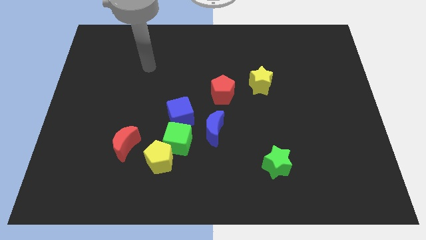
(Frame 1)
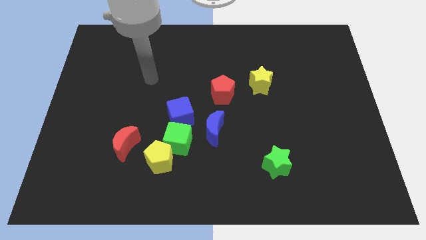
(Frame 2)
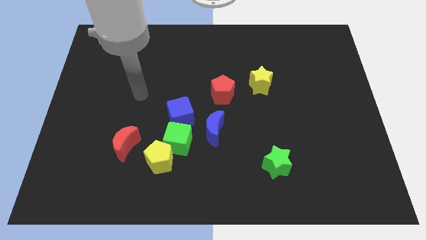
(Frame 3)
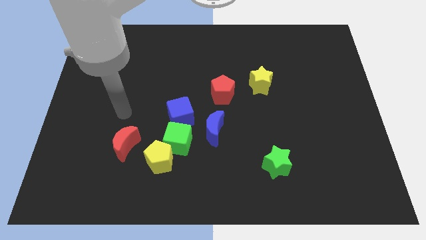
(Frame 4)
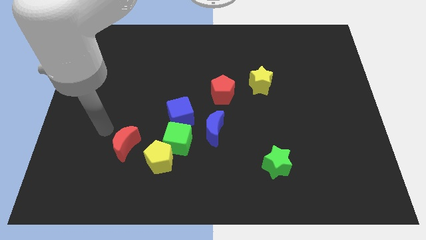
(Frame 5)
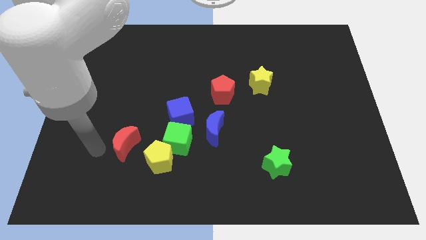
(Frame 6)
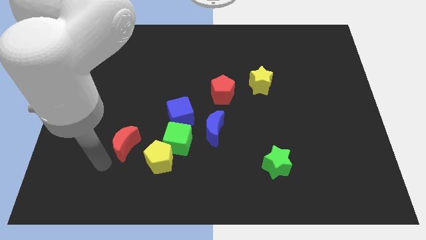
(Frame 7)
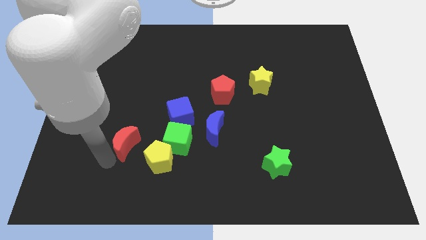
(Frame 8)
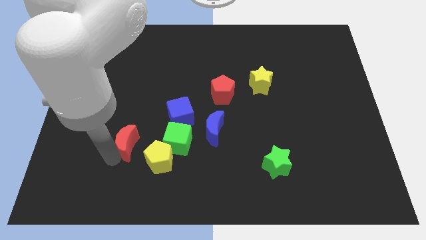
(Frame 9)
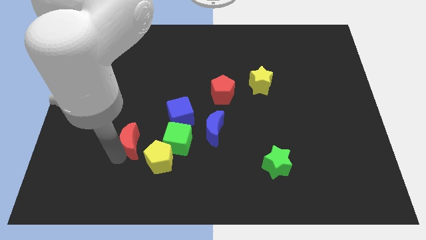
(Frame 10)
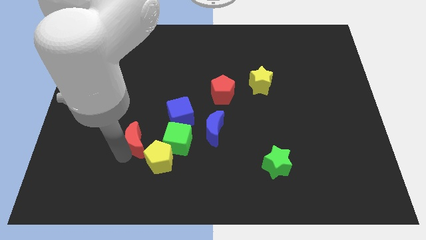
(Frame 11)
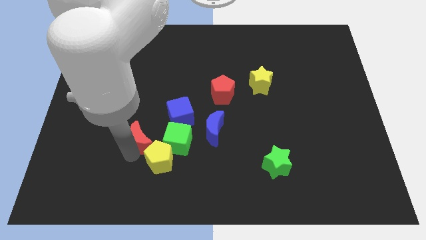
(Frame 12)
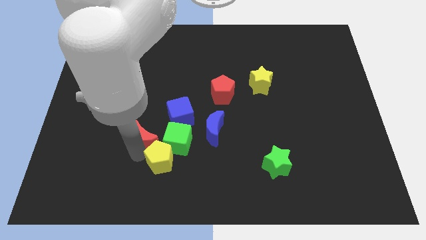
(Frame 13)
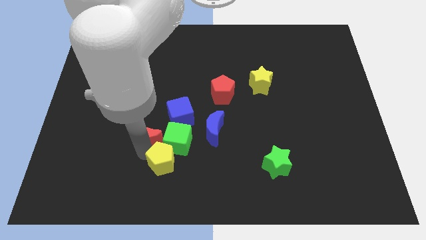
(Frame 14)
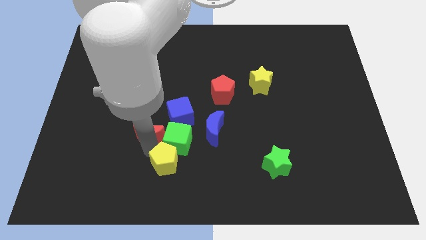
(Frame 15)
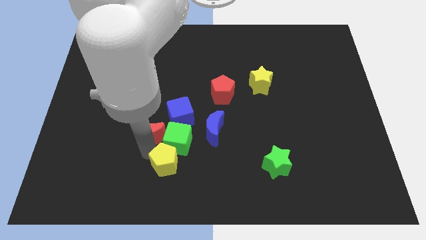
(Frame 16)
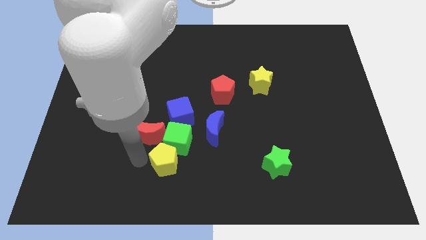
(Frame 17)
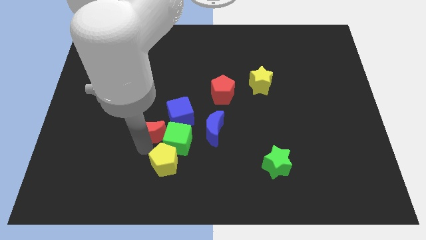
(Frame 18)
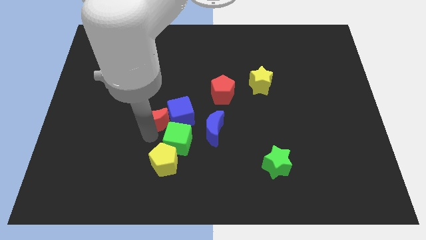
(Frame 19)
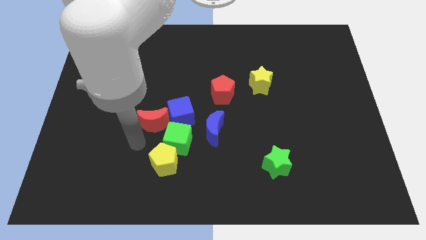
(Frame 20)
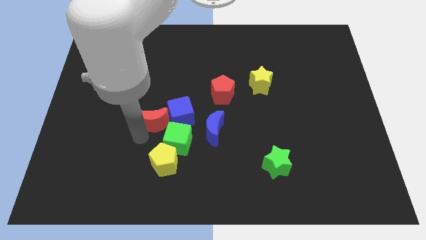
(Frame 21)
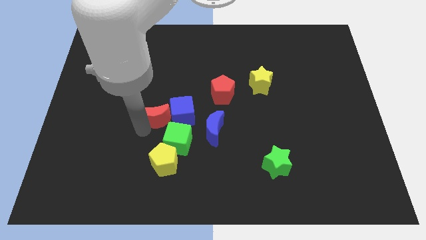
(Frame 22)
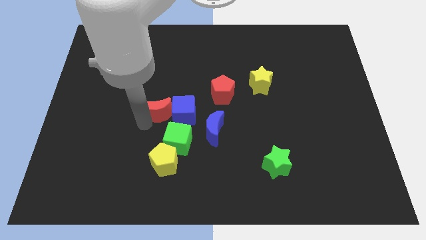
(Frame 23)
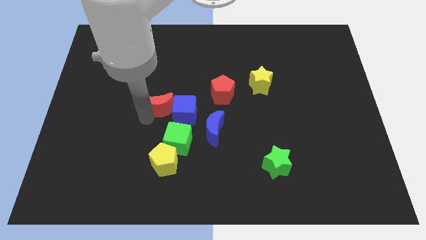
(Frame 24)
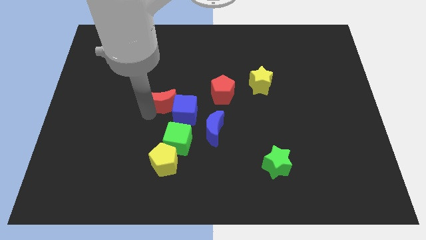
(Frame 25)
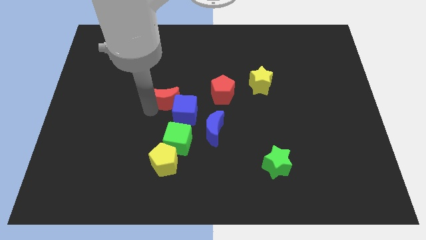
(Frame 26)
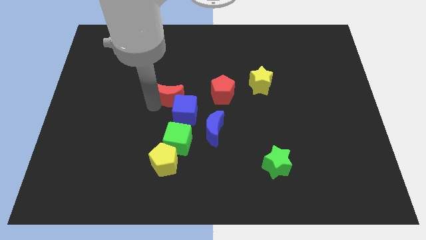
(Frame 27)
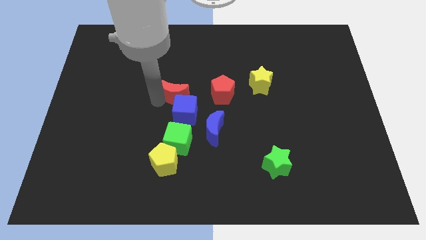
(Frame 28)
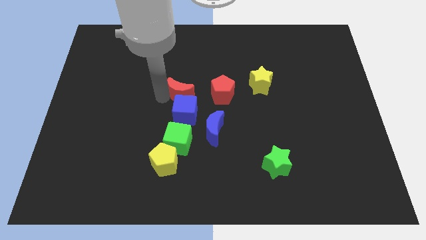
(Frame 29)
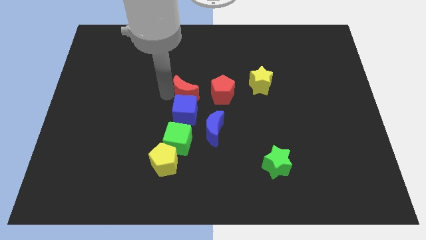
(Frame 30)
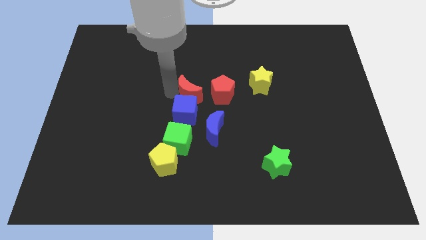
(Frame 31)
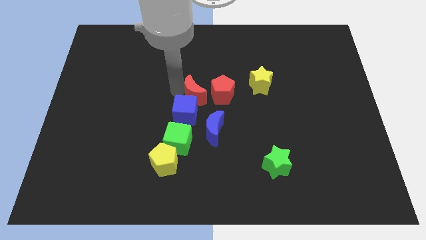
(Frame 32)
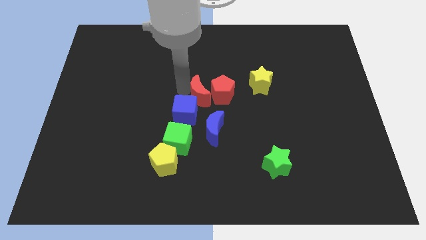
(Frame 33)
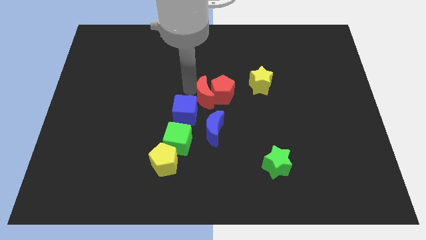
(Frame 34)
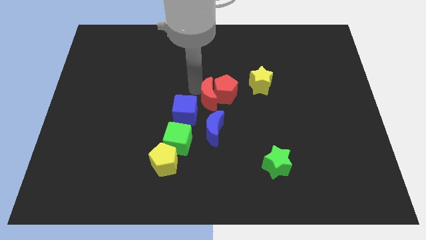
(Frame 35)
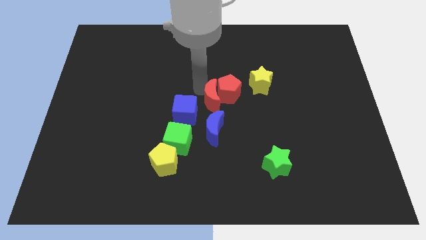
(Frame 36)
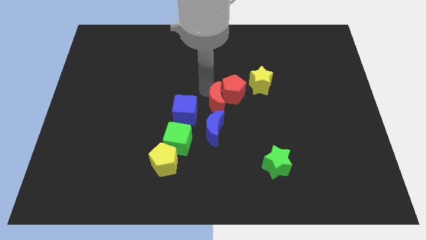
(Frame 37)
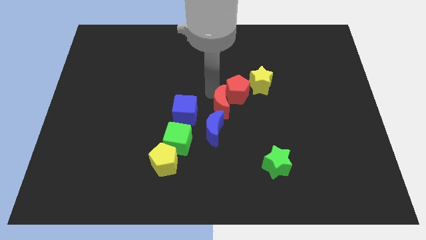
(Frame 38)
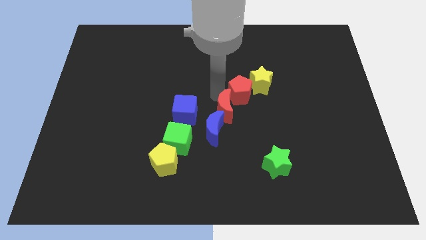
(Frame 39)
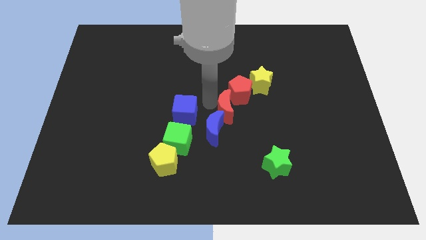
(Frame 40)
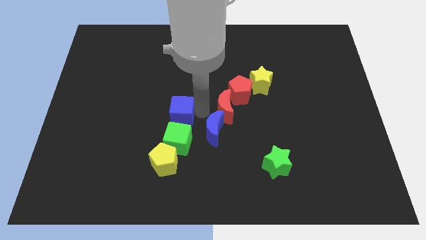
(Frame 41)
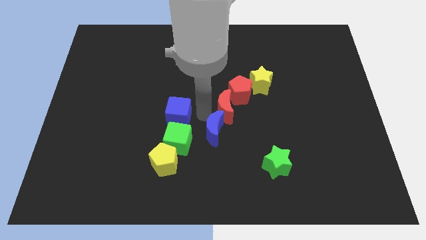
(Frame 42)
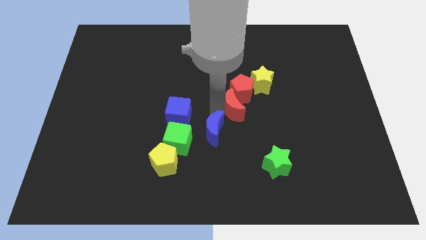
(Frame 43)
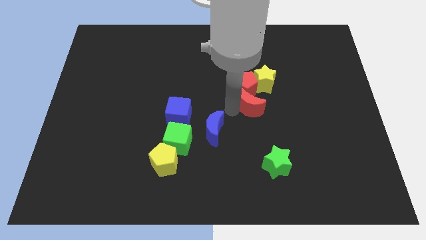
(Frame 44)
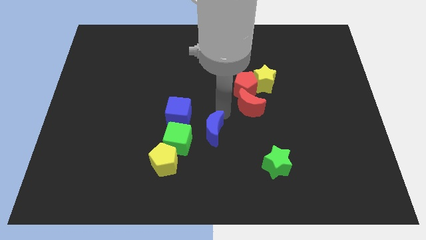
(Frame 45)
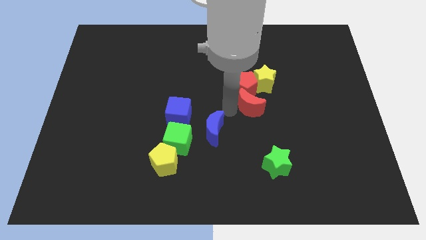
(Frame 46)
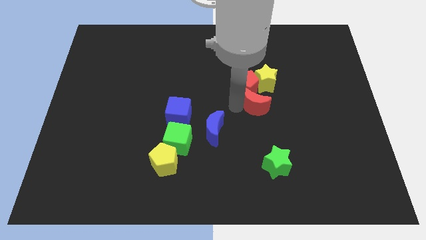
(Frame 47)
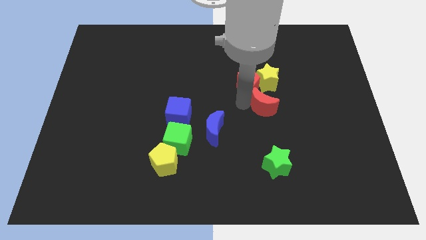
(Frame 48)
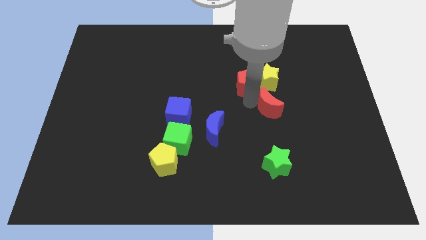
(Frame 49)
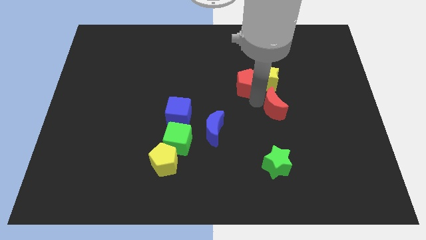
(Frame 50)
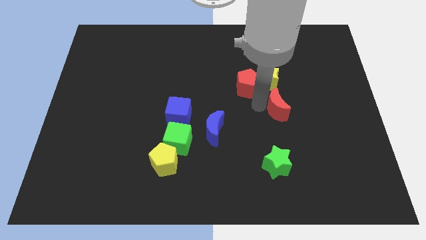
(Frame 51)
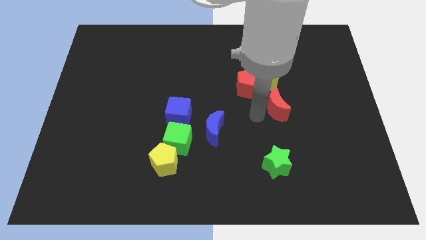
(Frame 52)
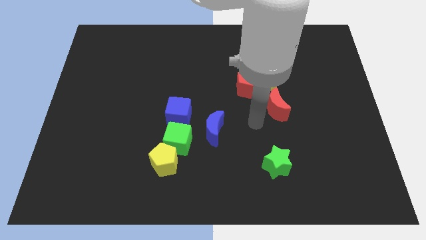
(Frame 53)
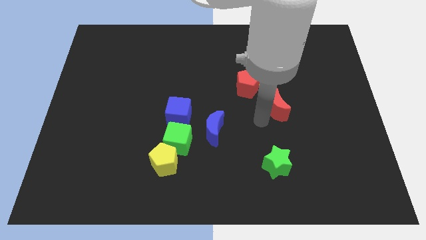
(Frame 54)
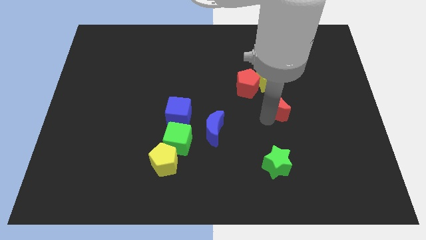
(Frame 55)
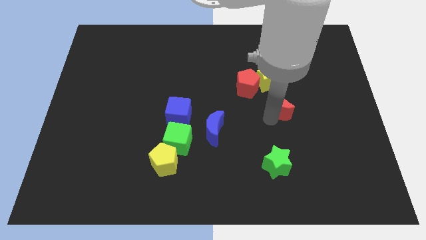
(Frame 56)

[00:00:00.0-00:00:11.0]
push the red moon to the bottom right of the yellow star

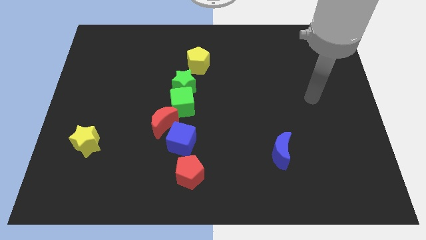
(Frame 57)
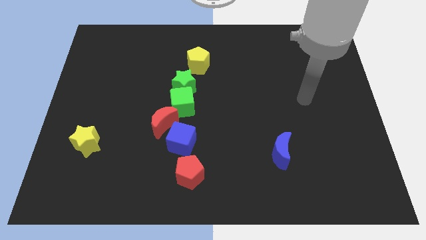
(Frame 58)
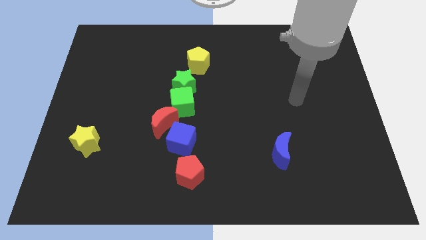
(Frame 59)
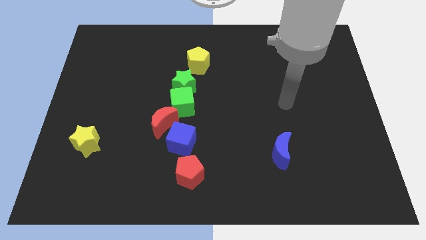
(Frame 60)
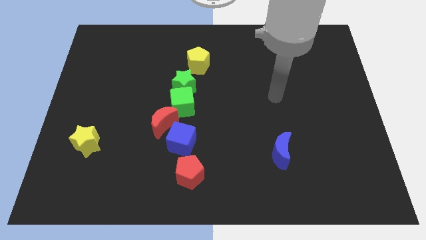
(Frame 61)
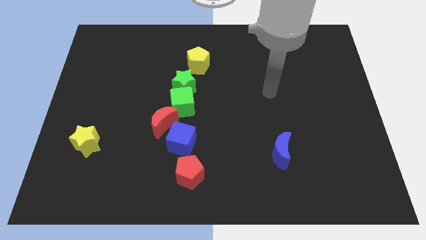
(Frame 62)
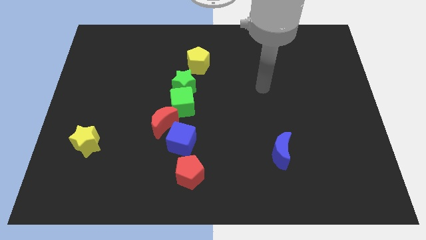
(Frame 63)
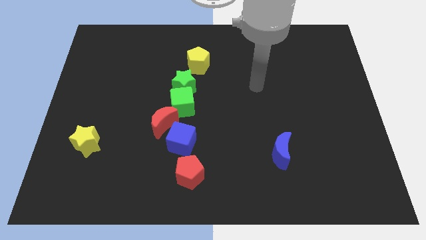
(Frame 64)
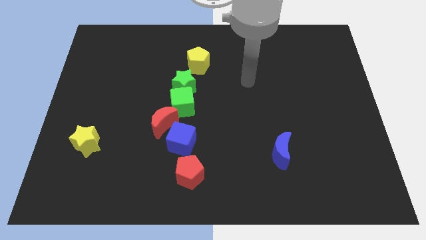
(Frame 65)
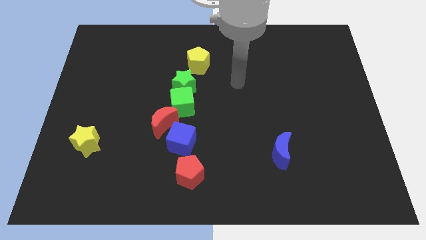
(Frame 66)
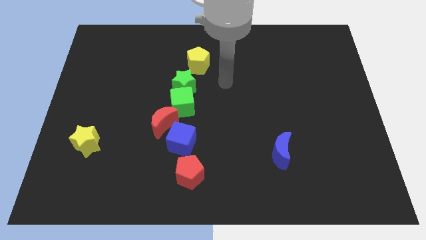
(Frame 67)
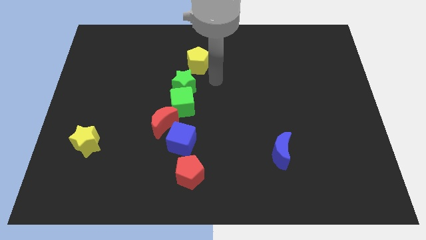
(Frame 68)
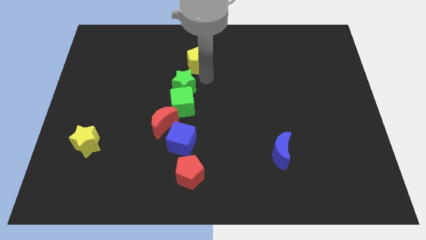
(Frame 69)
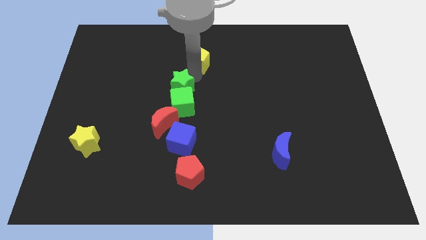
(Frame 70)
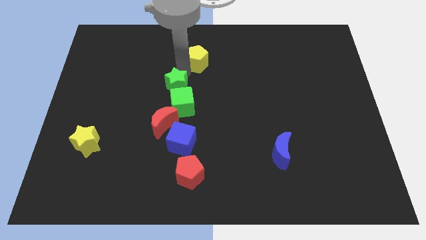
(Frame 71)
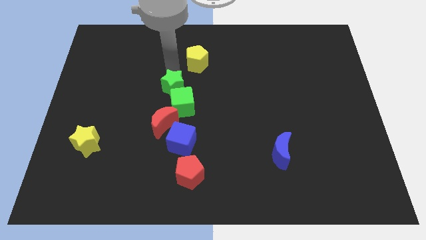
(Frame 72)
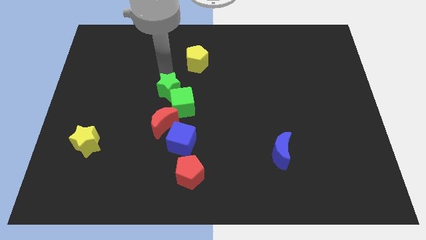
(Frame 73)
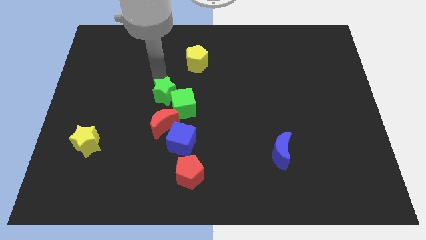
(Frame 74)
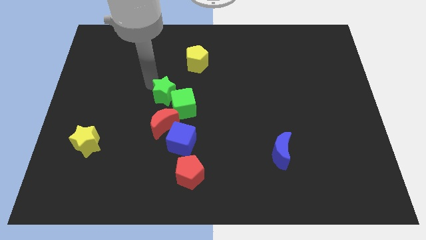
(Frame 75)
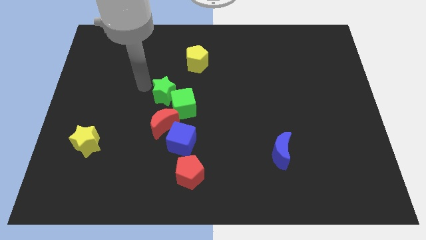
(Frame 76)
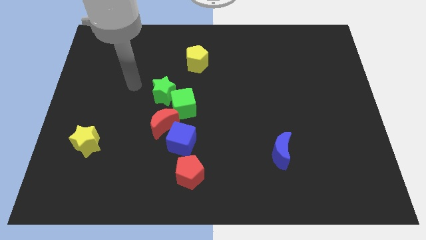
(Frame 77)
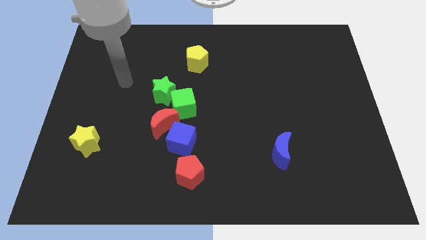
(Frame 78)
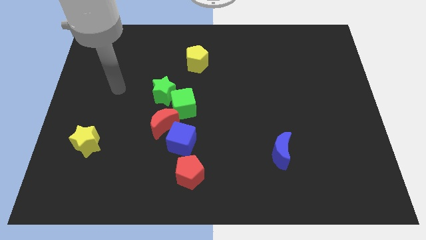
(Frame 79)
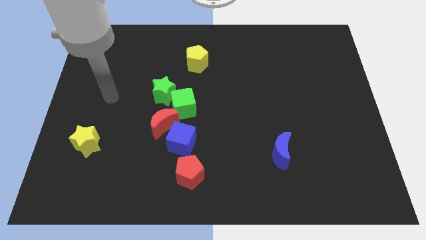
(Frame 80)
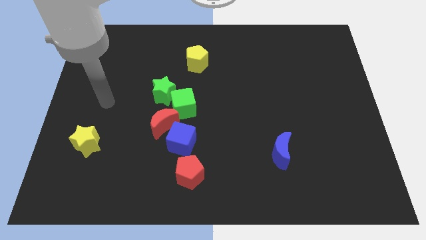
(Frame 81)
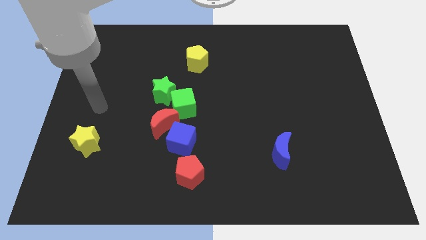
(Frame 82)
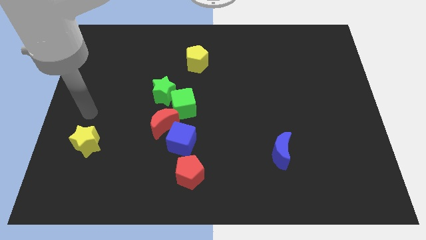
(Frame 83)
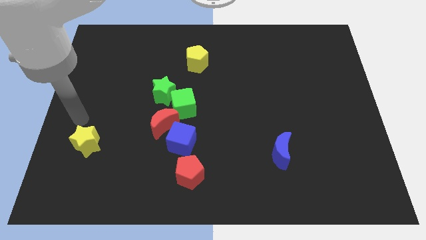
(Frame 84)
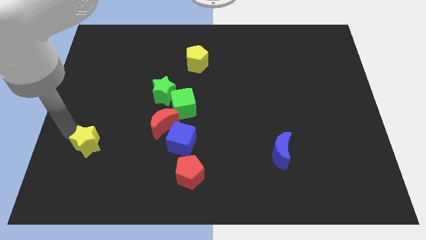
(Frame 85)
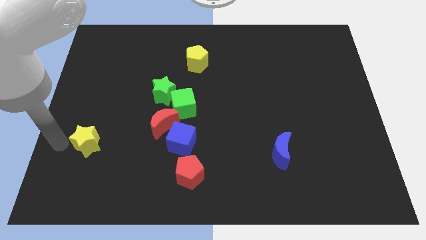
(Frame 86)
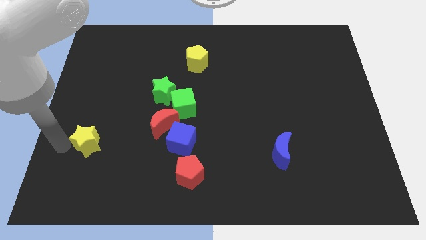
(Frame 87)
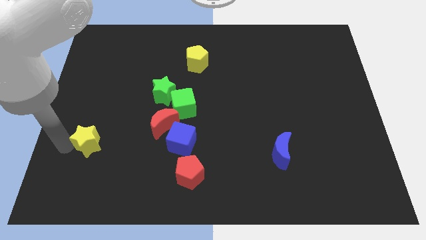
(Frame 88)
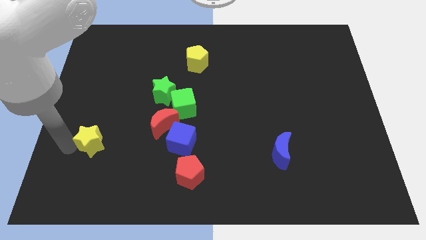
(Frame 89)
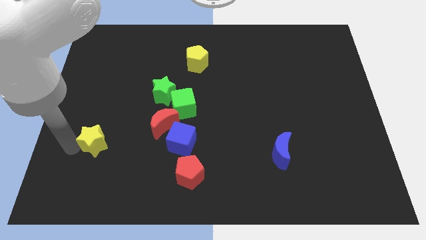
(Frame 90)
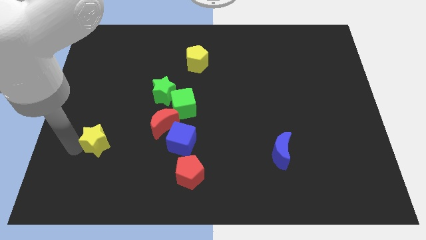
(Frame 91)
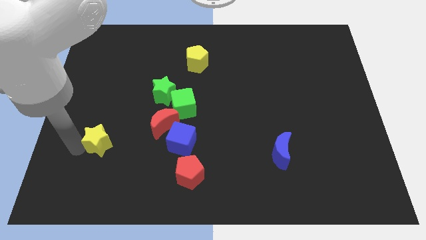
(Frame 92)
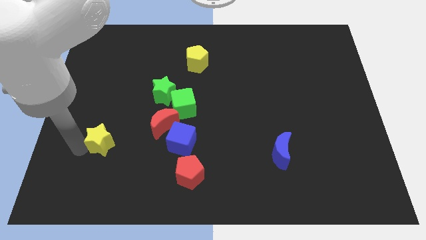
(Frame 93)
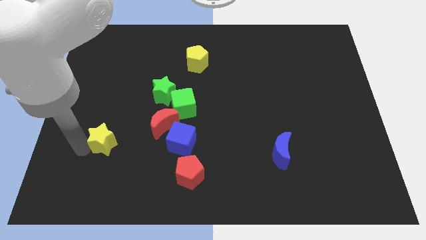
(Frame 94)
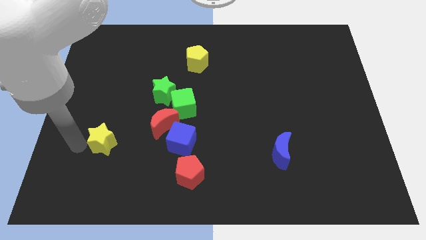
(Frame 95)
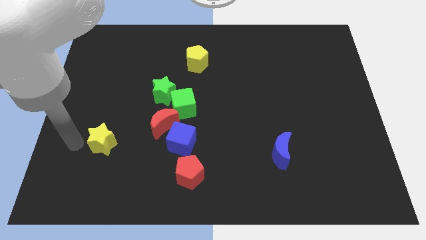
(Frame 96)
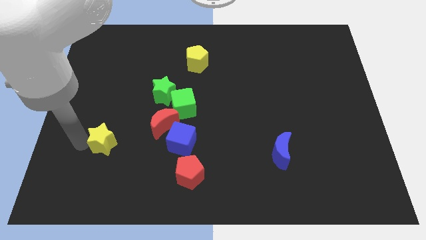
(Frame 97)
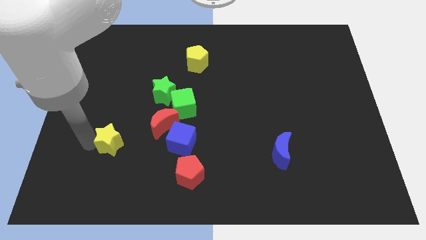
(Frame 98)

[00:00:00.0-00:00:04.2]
slide the yellow star to the left of the blue cube
